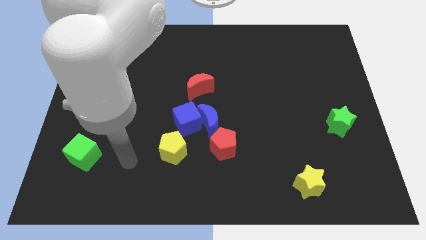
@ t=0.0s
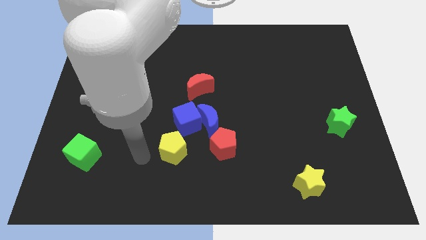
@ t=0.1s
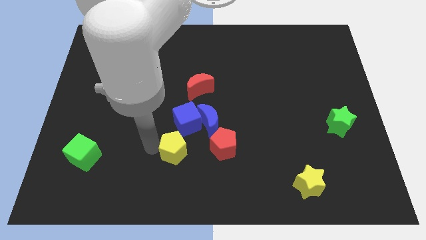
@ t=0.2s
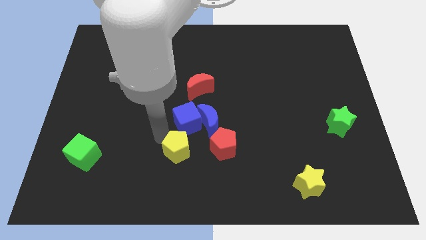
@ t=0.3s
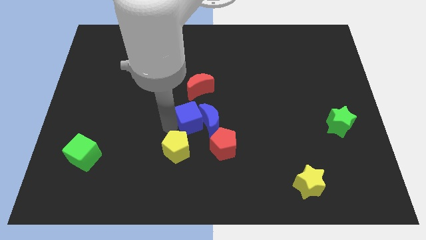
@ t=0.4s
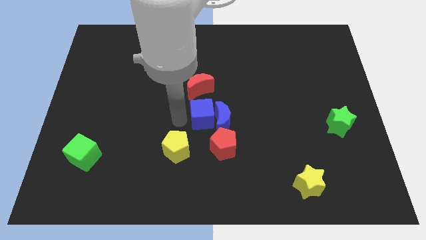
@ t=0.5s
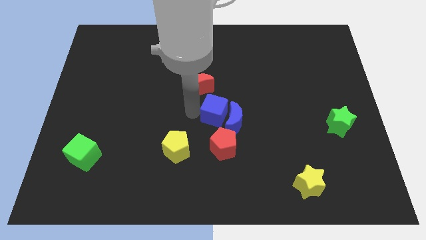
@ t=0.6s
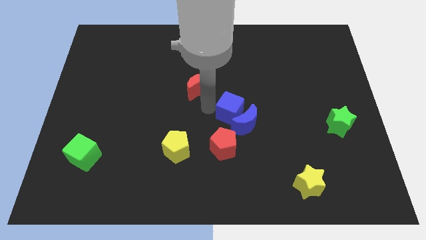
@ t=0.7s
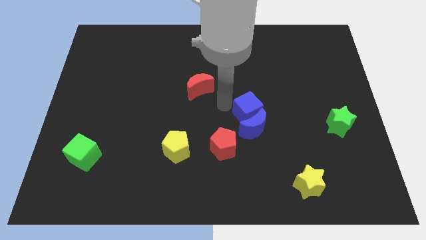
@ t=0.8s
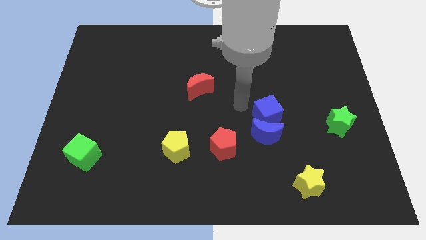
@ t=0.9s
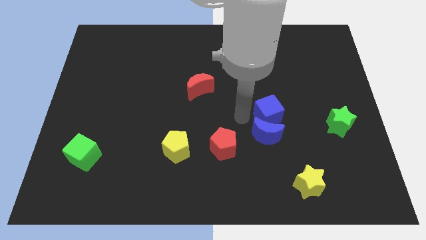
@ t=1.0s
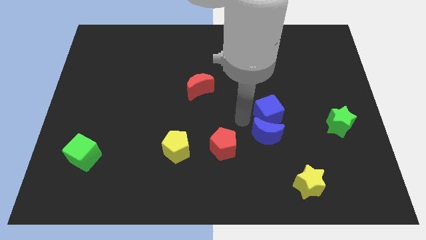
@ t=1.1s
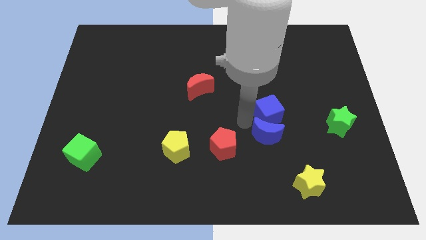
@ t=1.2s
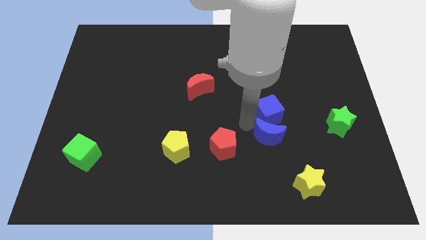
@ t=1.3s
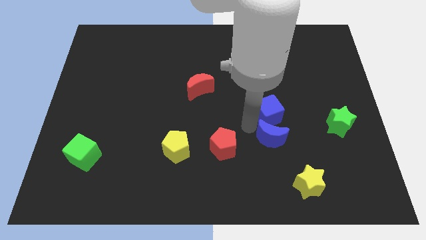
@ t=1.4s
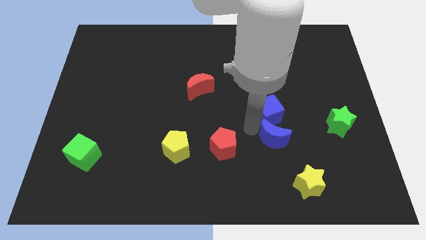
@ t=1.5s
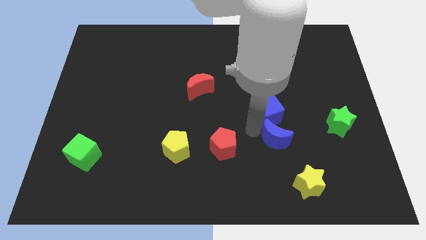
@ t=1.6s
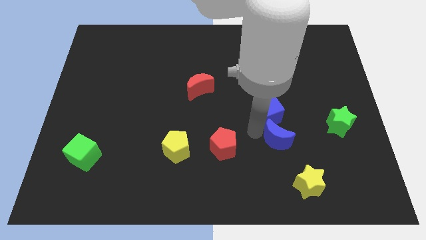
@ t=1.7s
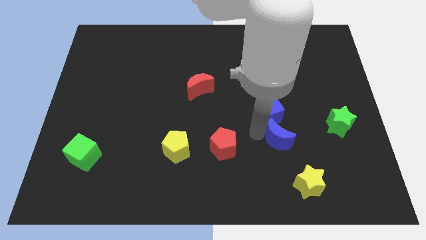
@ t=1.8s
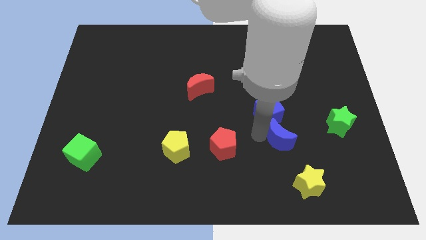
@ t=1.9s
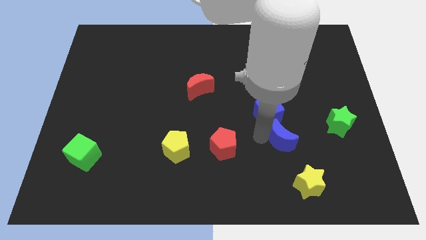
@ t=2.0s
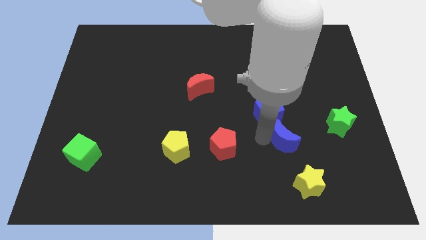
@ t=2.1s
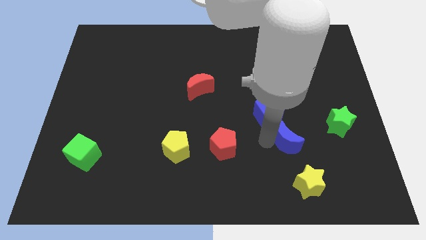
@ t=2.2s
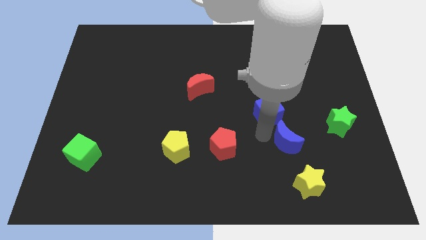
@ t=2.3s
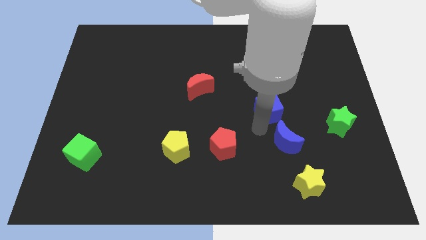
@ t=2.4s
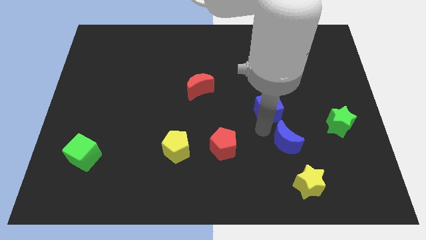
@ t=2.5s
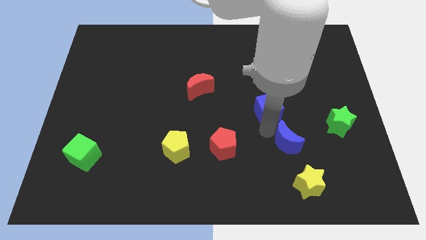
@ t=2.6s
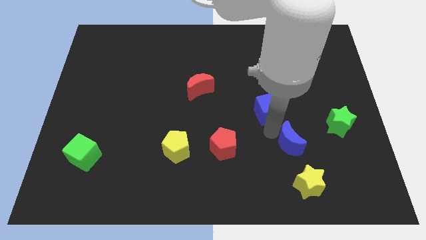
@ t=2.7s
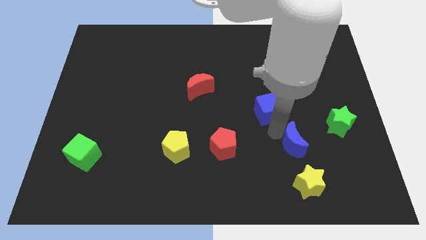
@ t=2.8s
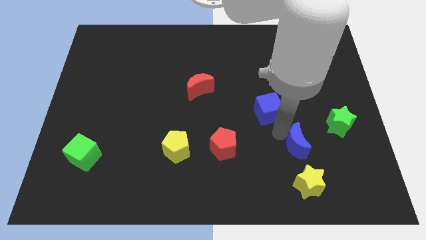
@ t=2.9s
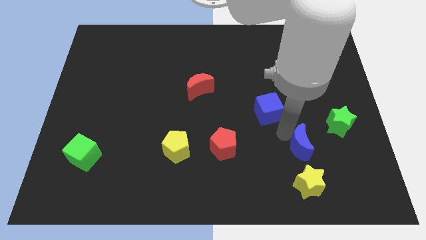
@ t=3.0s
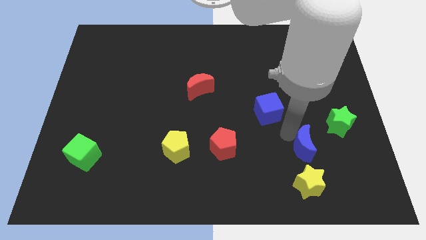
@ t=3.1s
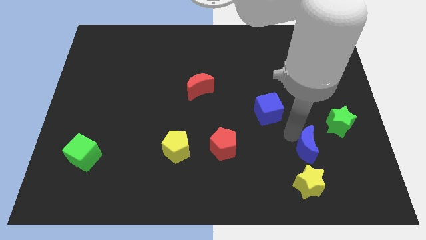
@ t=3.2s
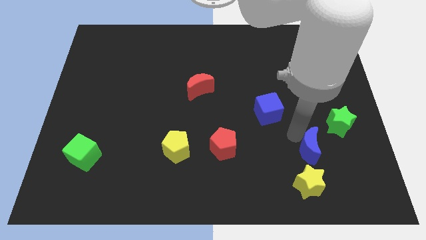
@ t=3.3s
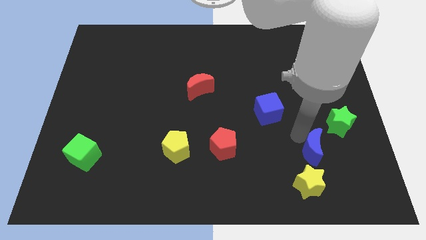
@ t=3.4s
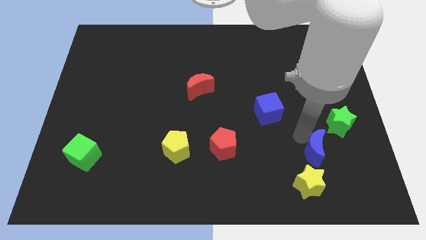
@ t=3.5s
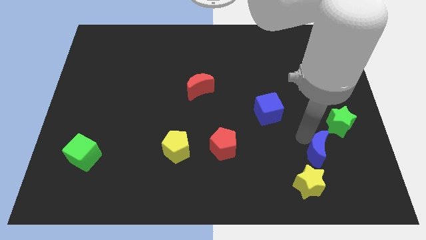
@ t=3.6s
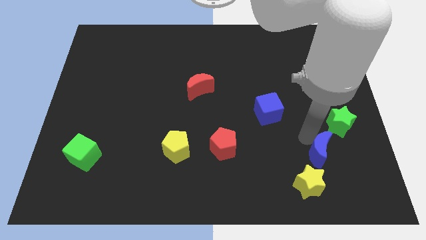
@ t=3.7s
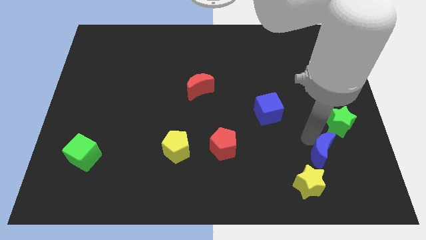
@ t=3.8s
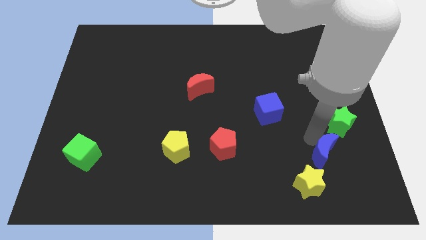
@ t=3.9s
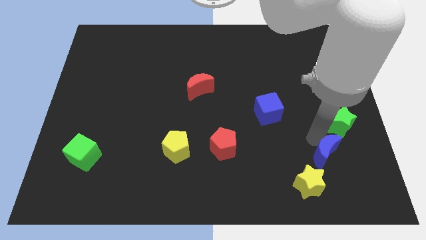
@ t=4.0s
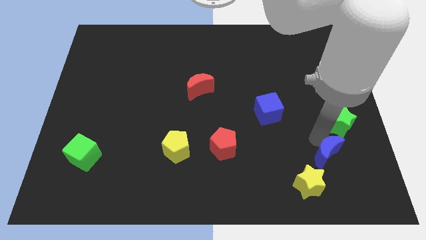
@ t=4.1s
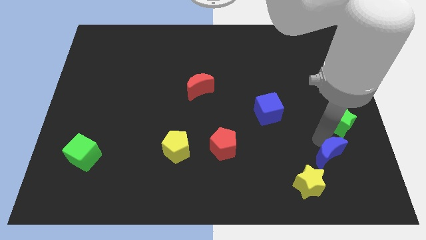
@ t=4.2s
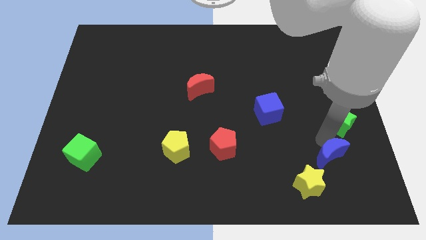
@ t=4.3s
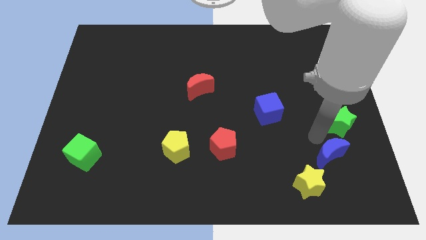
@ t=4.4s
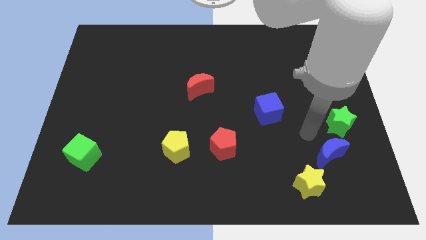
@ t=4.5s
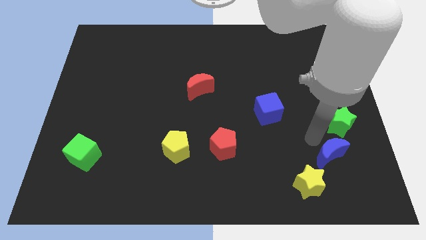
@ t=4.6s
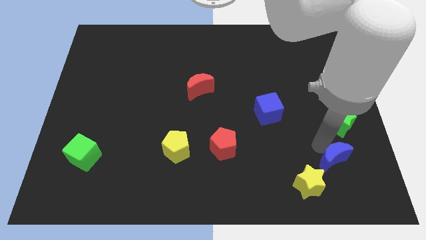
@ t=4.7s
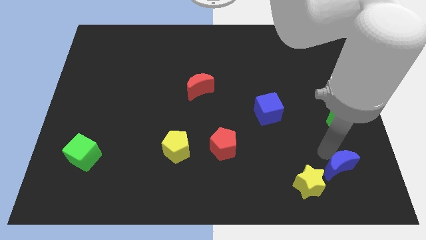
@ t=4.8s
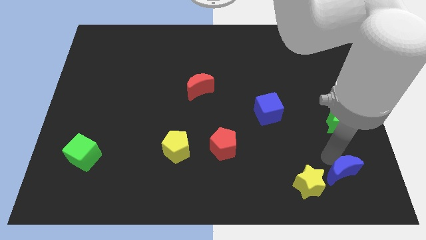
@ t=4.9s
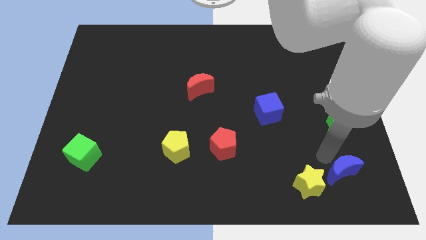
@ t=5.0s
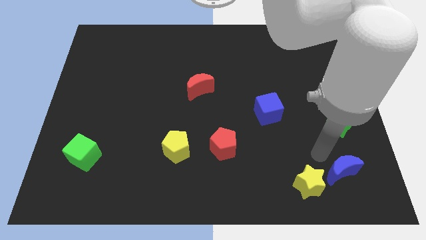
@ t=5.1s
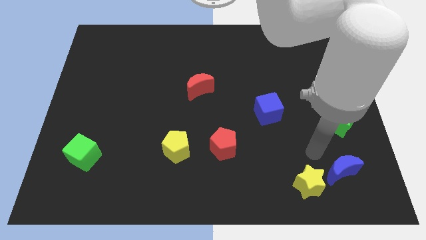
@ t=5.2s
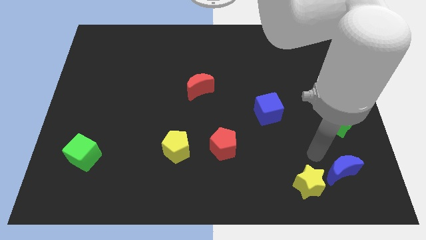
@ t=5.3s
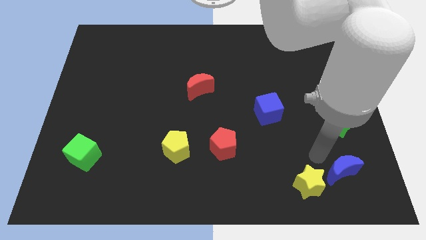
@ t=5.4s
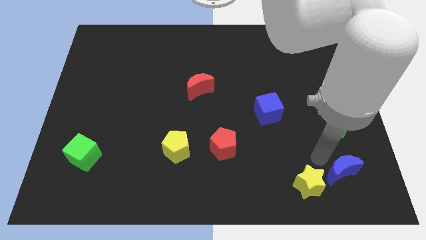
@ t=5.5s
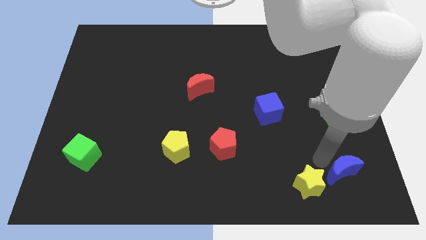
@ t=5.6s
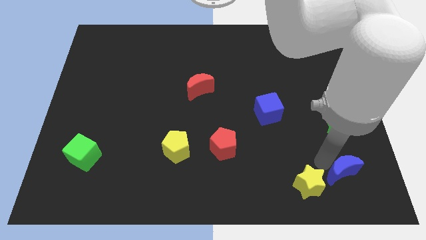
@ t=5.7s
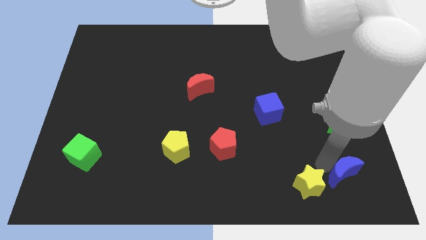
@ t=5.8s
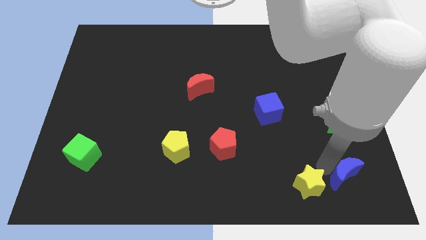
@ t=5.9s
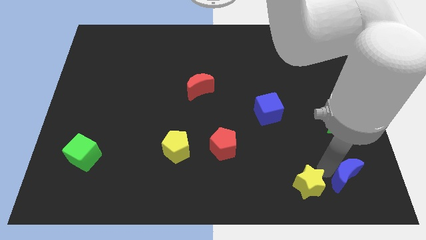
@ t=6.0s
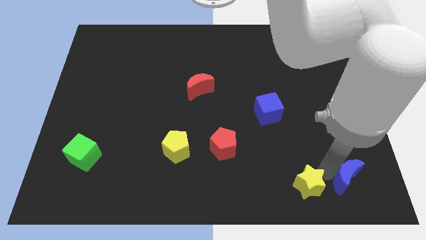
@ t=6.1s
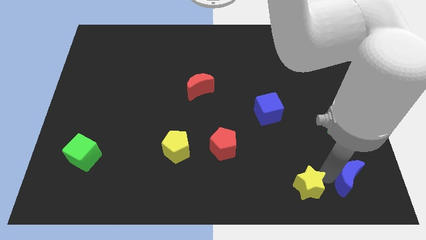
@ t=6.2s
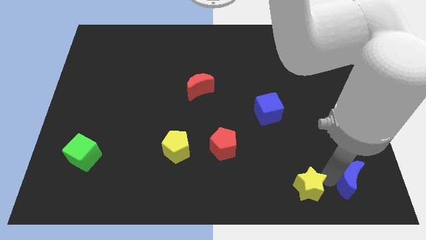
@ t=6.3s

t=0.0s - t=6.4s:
slide the blue moon to the bottom right corner
